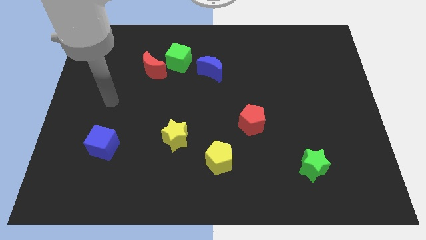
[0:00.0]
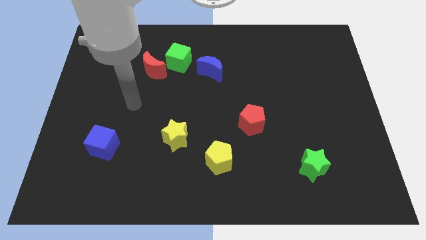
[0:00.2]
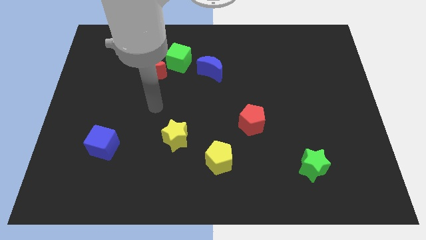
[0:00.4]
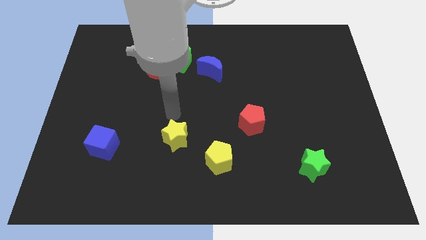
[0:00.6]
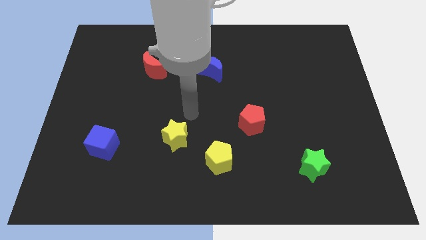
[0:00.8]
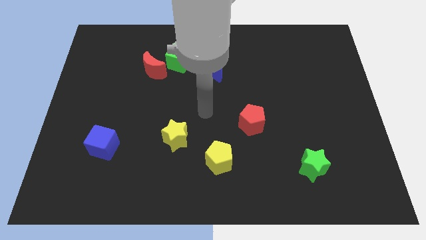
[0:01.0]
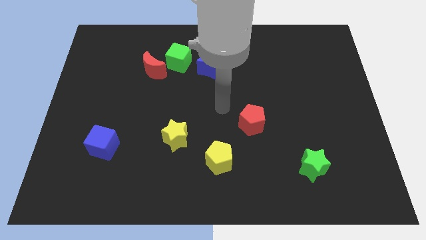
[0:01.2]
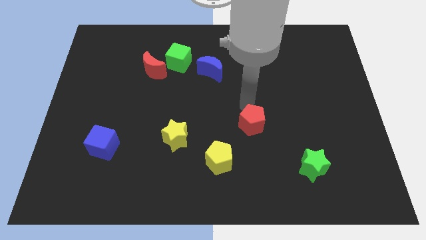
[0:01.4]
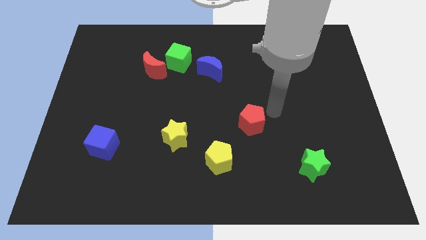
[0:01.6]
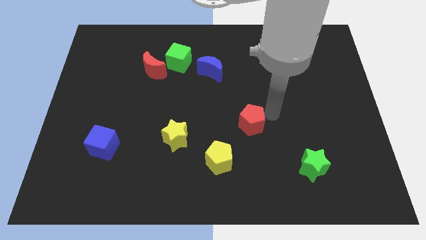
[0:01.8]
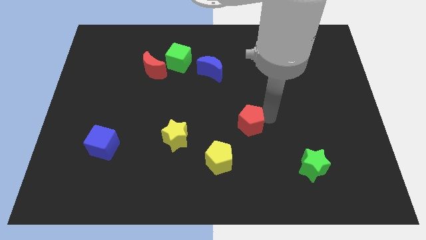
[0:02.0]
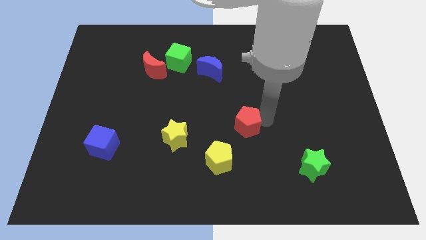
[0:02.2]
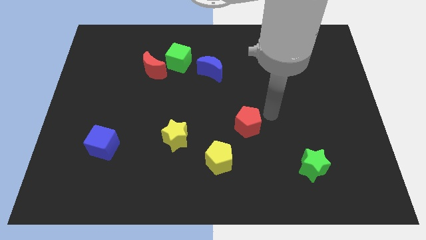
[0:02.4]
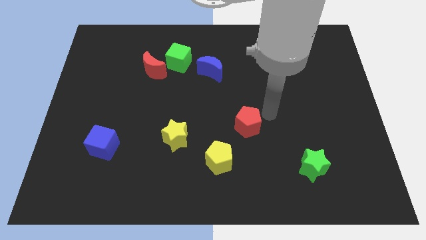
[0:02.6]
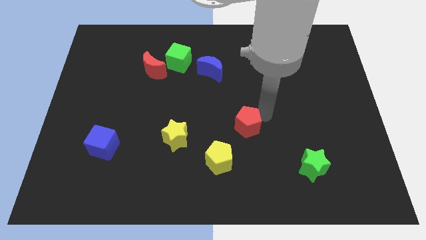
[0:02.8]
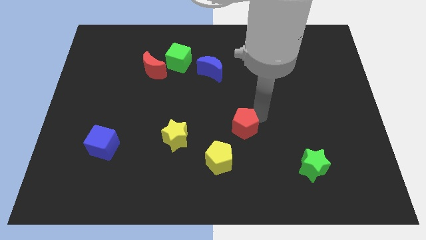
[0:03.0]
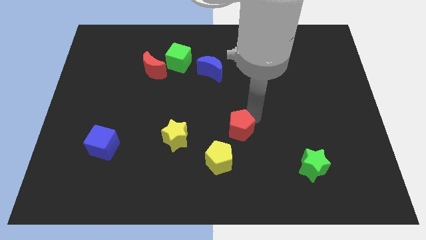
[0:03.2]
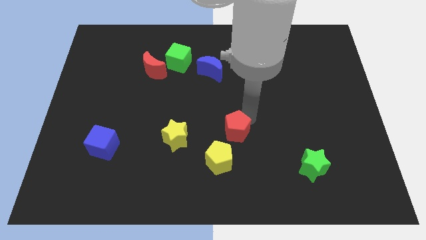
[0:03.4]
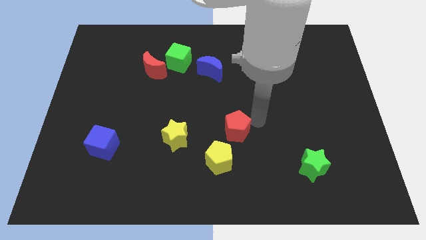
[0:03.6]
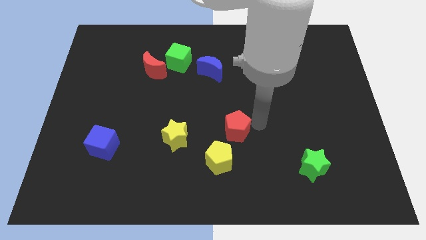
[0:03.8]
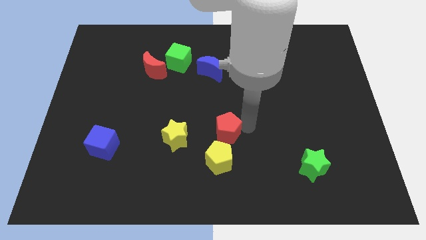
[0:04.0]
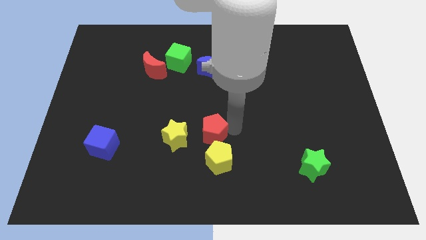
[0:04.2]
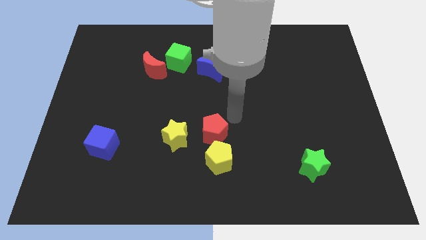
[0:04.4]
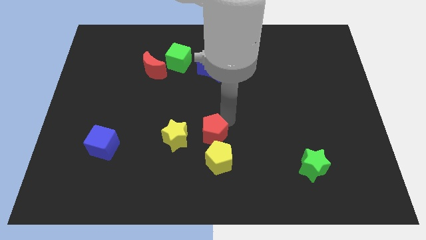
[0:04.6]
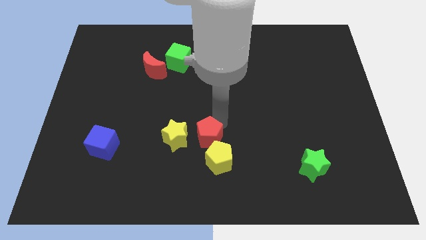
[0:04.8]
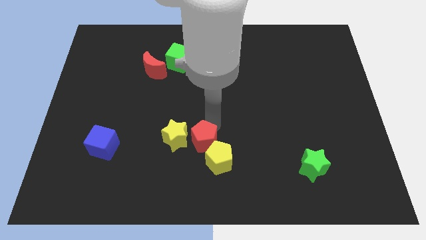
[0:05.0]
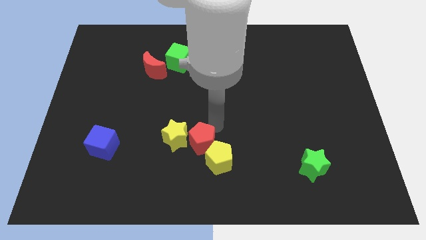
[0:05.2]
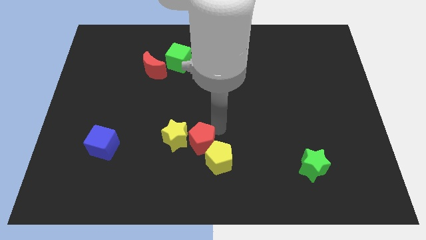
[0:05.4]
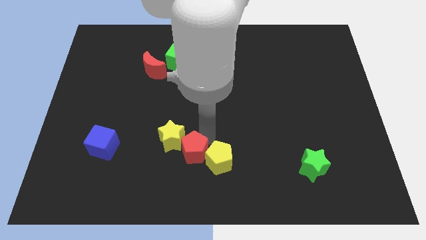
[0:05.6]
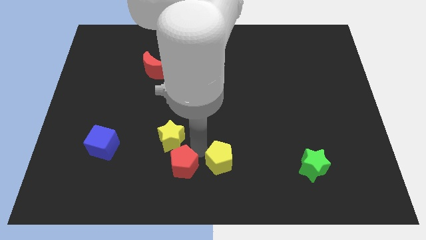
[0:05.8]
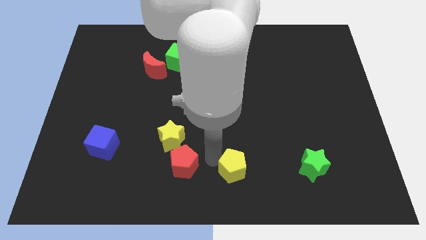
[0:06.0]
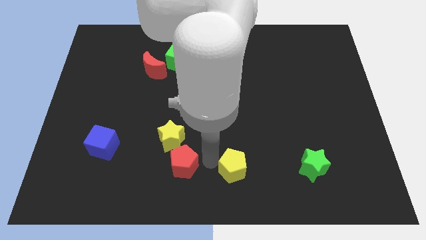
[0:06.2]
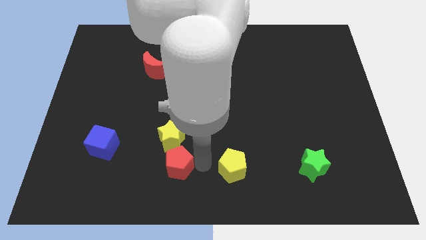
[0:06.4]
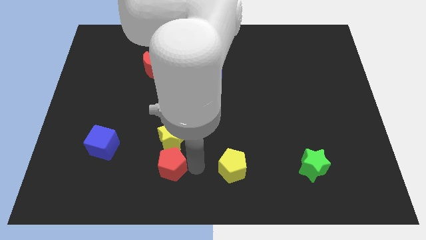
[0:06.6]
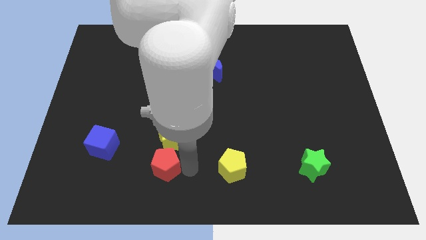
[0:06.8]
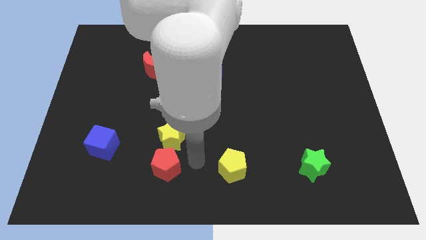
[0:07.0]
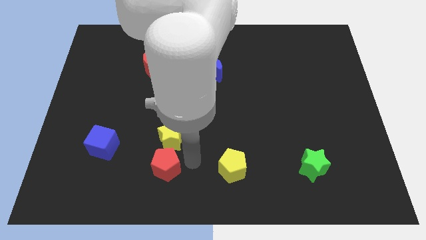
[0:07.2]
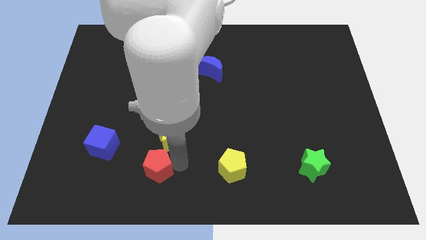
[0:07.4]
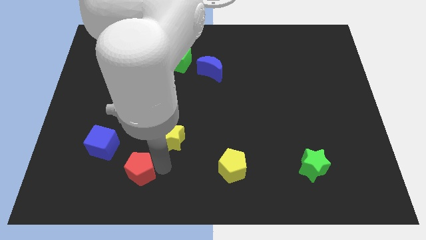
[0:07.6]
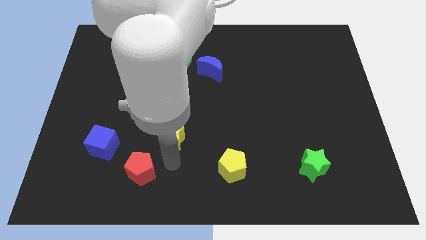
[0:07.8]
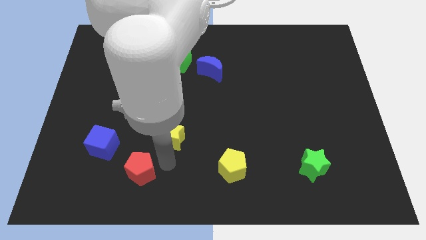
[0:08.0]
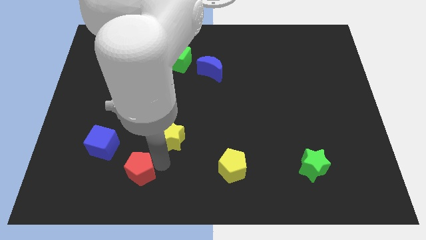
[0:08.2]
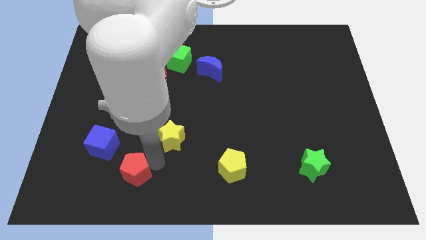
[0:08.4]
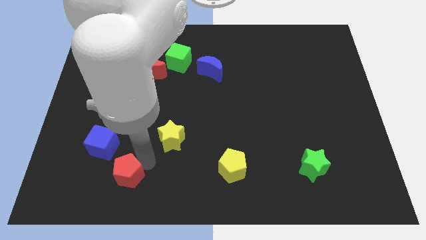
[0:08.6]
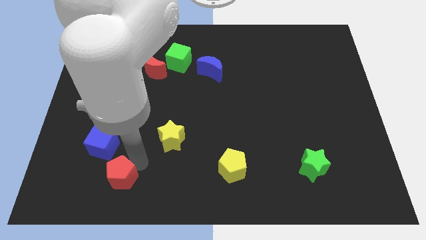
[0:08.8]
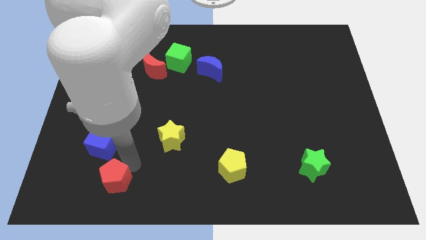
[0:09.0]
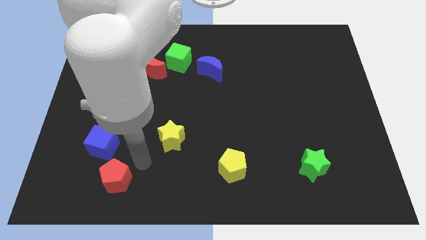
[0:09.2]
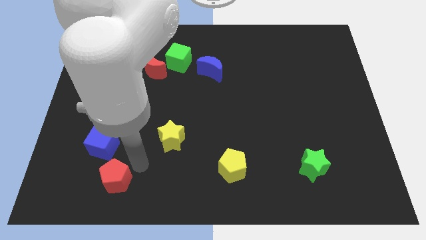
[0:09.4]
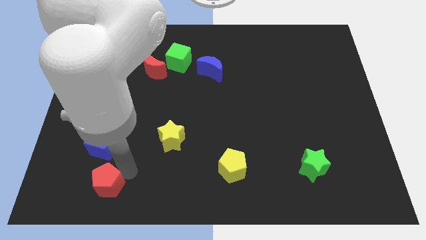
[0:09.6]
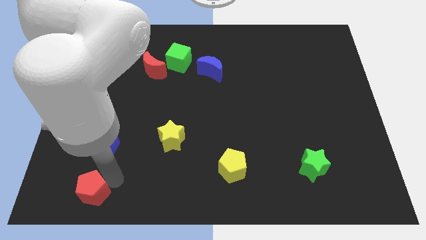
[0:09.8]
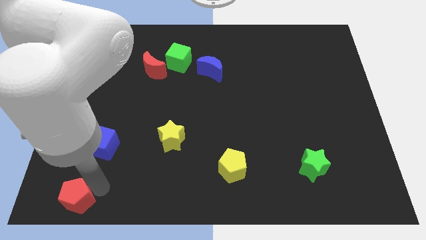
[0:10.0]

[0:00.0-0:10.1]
put the red pentagon to the bottom left corner

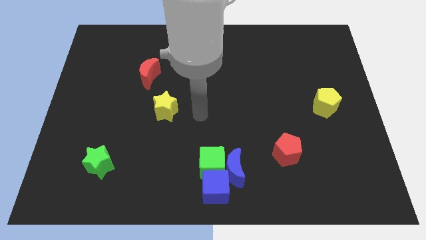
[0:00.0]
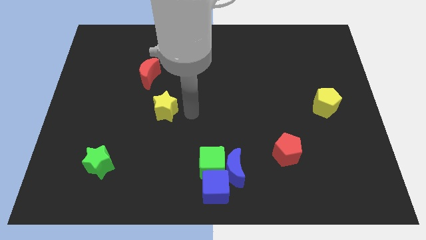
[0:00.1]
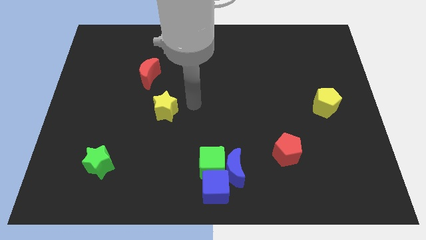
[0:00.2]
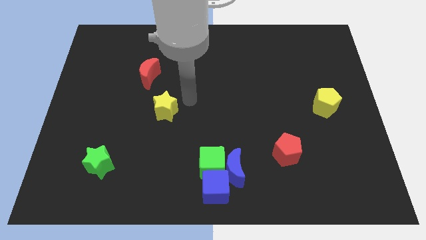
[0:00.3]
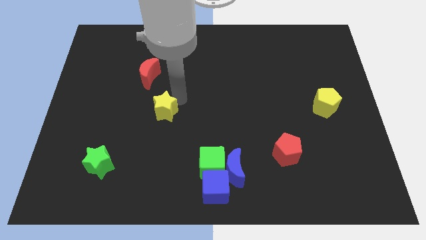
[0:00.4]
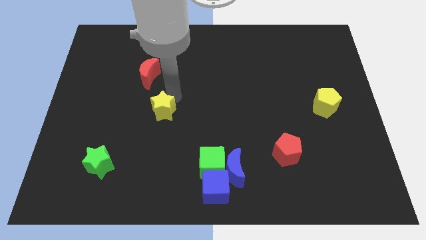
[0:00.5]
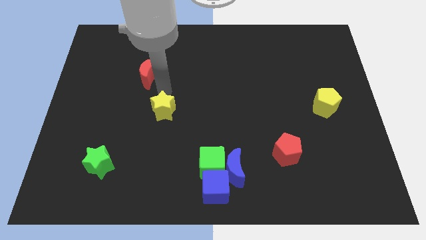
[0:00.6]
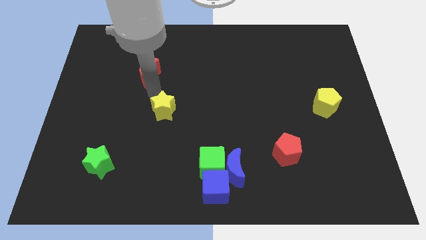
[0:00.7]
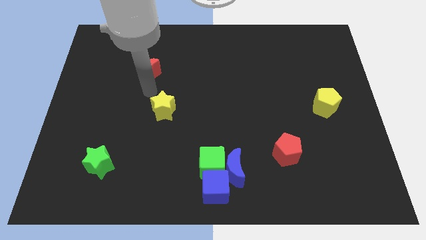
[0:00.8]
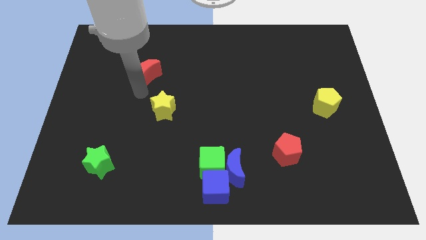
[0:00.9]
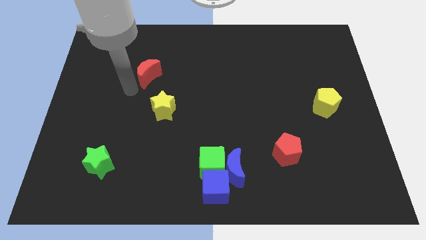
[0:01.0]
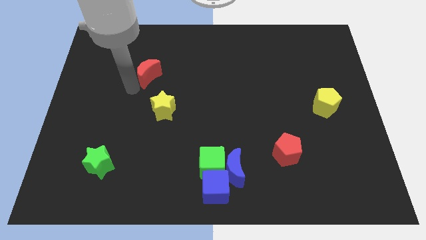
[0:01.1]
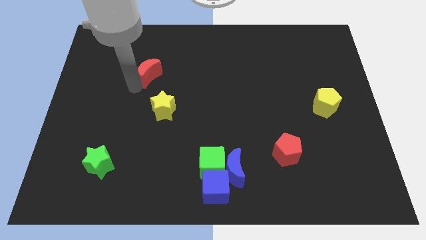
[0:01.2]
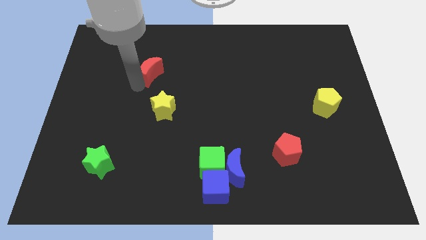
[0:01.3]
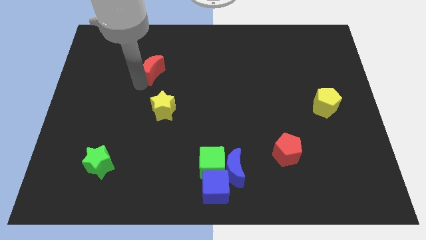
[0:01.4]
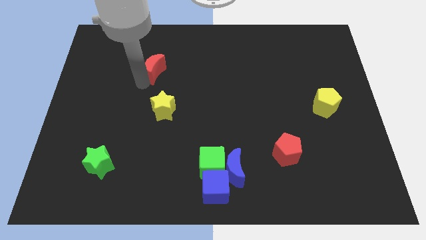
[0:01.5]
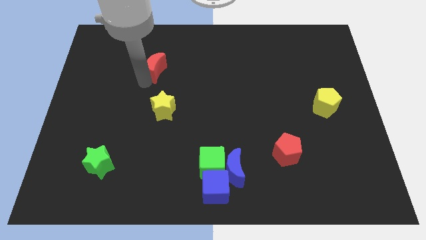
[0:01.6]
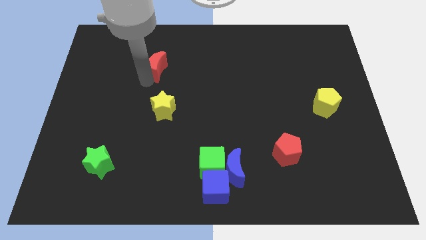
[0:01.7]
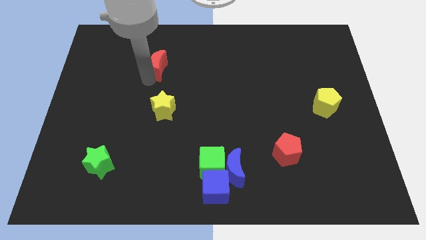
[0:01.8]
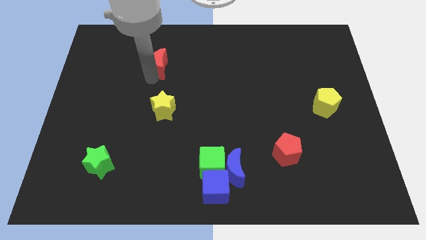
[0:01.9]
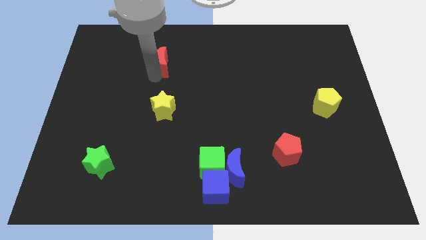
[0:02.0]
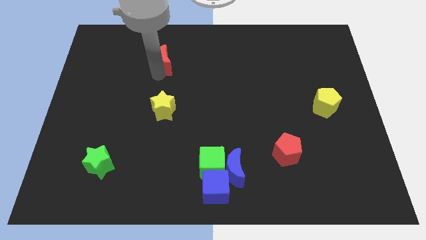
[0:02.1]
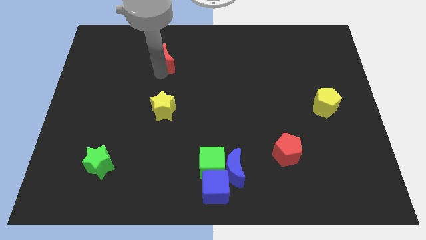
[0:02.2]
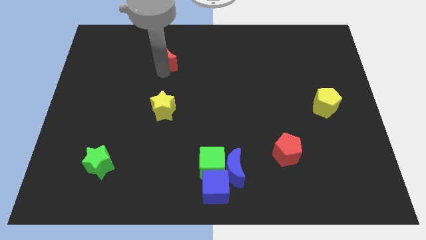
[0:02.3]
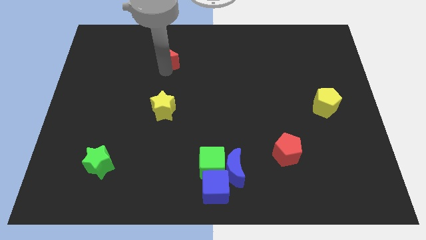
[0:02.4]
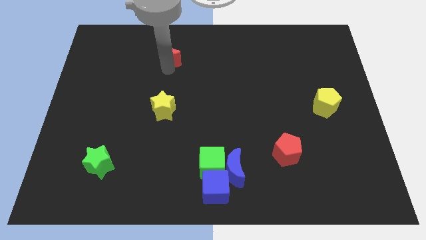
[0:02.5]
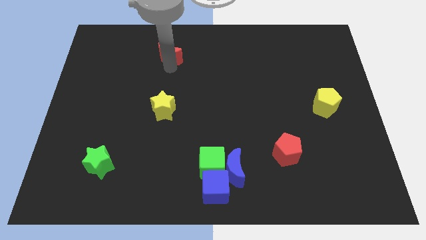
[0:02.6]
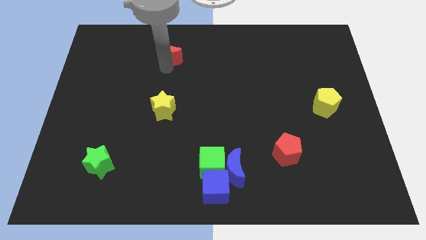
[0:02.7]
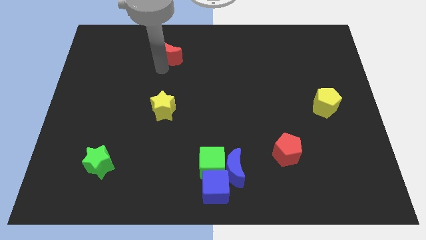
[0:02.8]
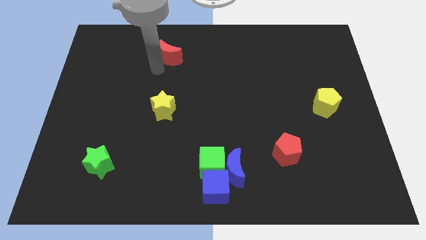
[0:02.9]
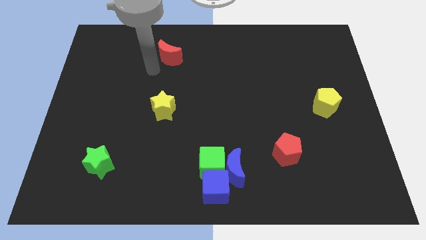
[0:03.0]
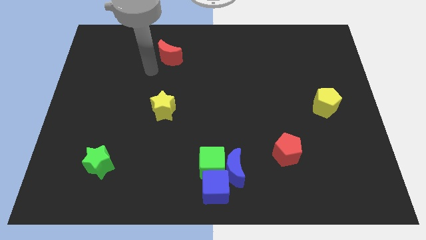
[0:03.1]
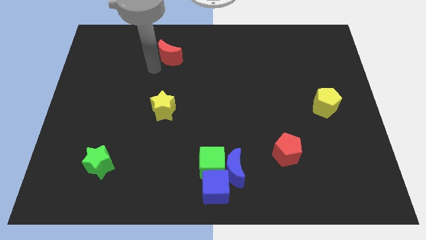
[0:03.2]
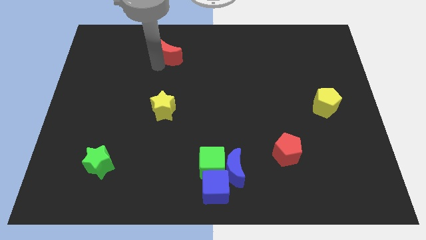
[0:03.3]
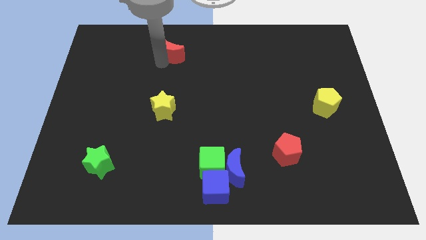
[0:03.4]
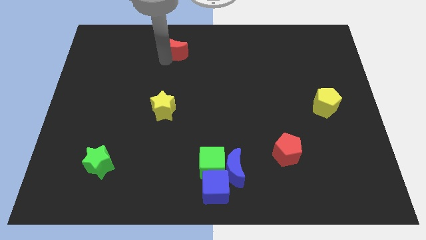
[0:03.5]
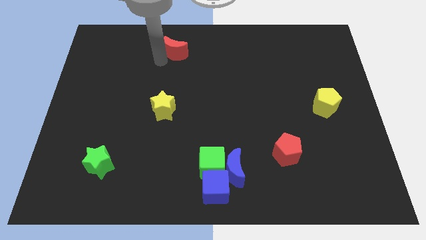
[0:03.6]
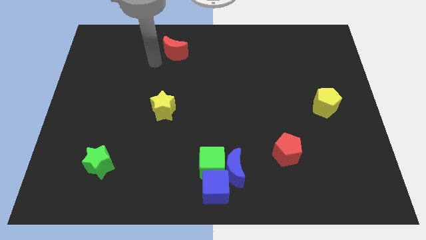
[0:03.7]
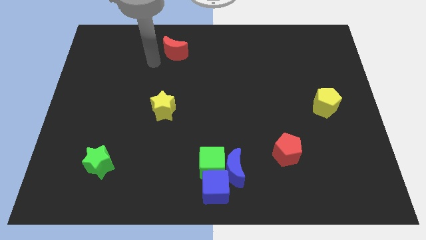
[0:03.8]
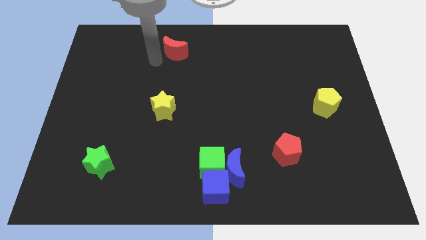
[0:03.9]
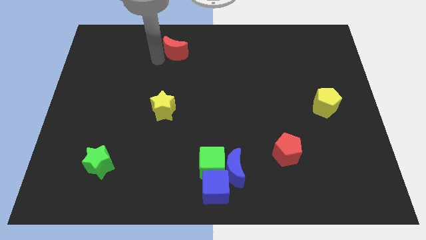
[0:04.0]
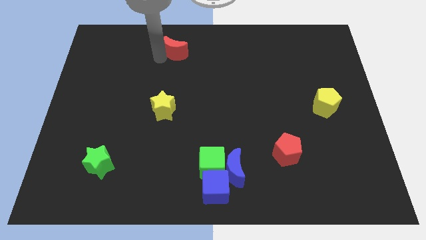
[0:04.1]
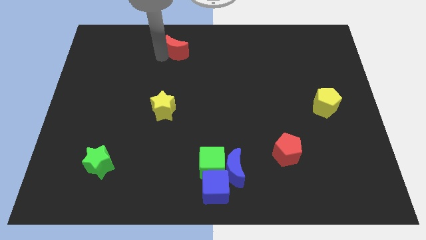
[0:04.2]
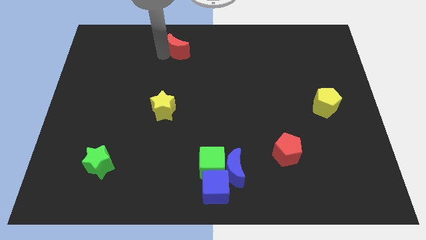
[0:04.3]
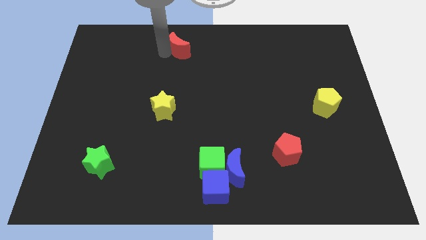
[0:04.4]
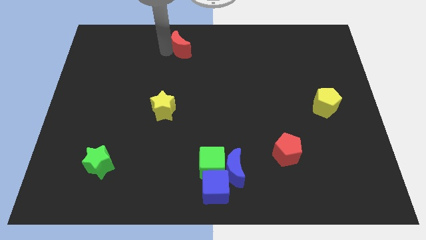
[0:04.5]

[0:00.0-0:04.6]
push the red moon to the top side
